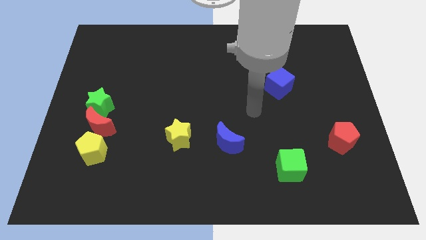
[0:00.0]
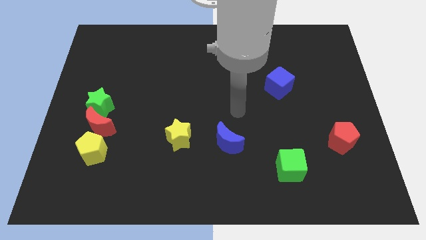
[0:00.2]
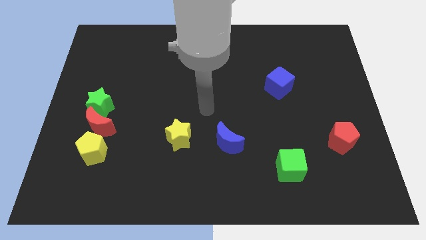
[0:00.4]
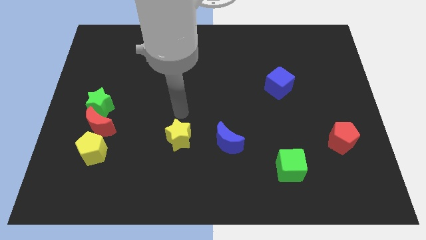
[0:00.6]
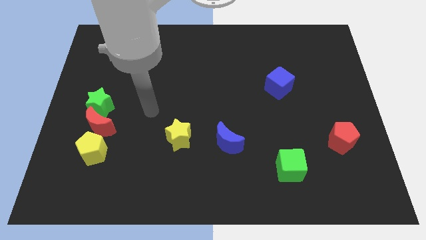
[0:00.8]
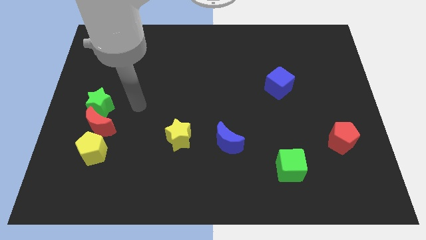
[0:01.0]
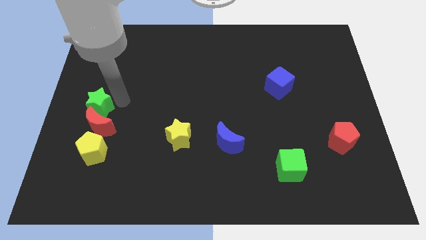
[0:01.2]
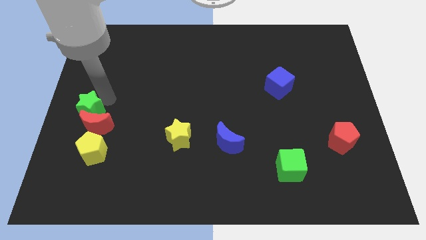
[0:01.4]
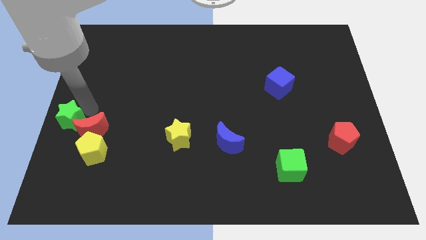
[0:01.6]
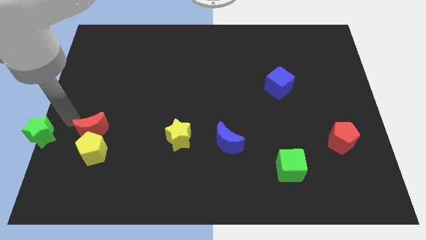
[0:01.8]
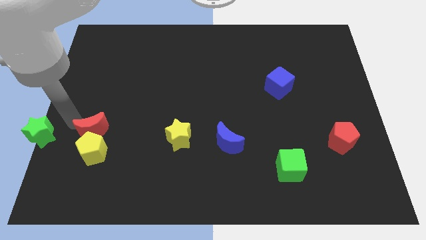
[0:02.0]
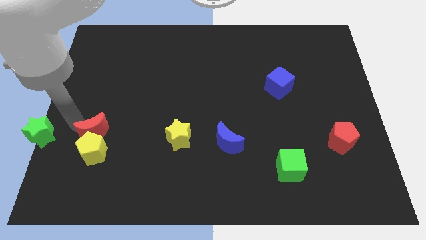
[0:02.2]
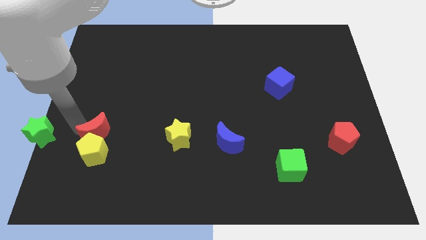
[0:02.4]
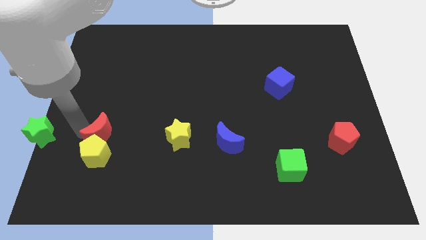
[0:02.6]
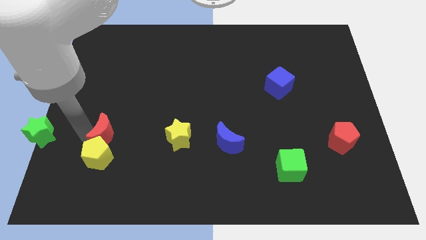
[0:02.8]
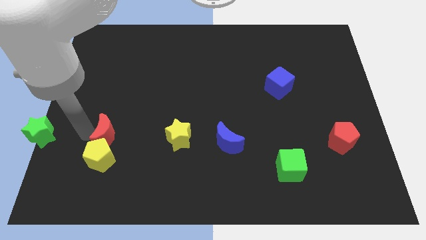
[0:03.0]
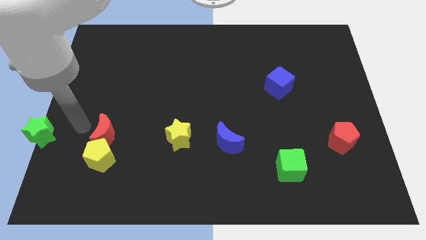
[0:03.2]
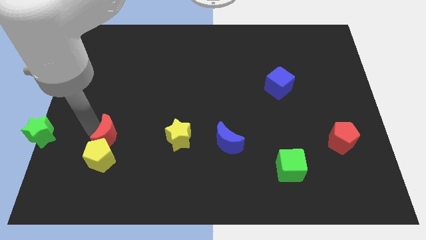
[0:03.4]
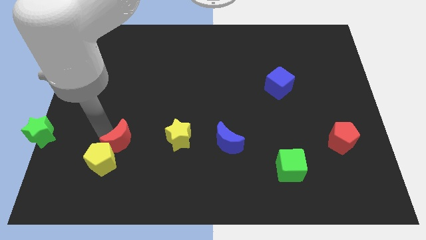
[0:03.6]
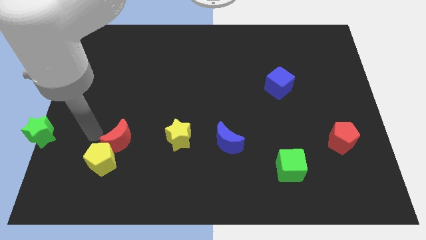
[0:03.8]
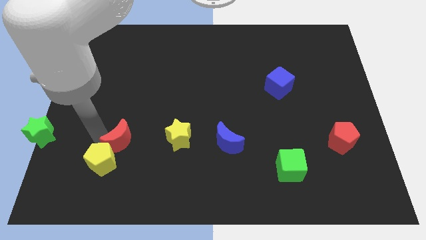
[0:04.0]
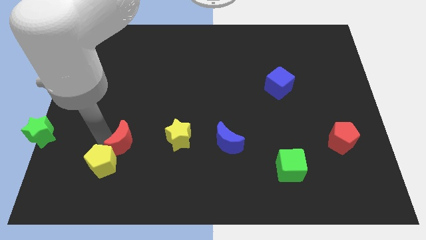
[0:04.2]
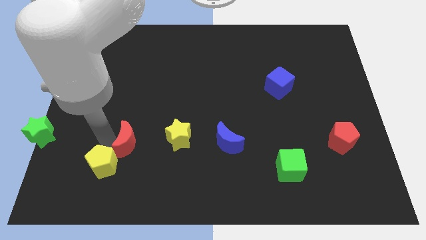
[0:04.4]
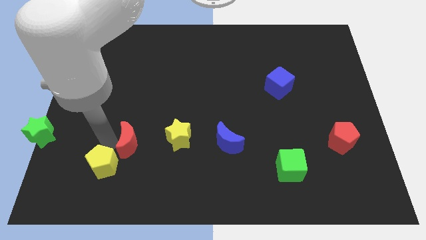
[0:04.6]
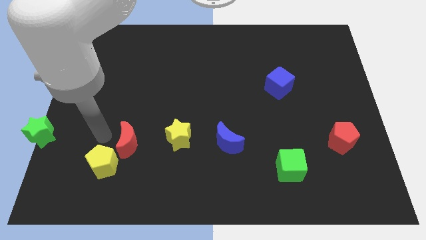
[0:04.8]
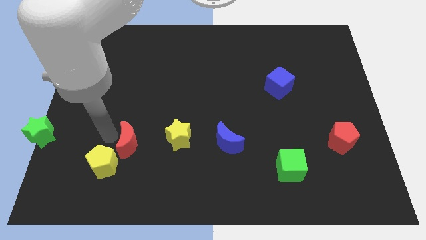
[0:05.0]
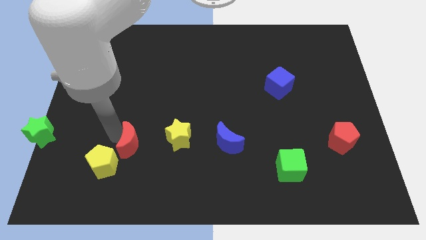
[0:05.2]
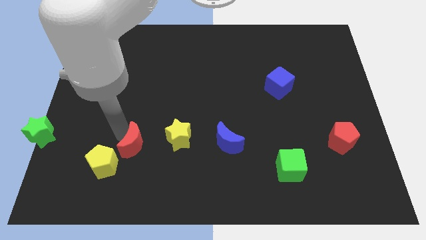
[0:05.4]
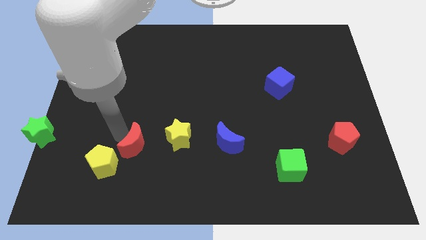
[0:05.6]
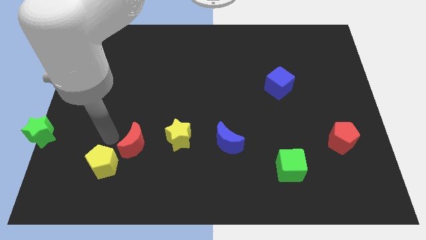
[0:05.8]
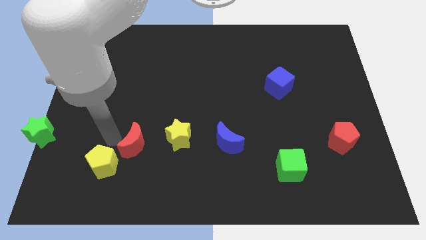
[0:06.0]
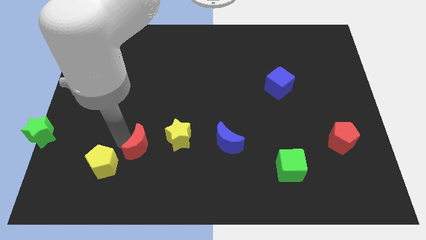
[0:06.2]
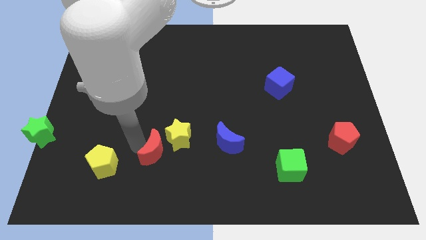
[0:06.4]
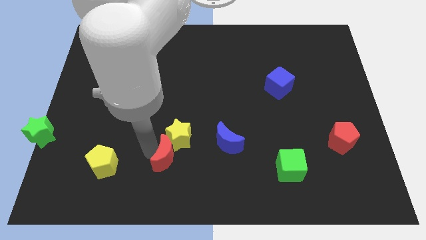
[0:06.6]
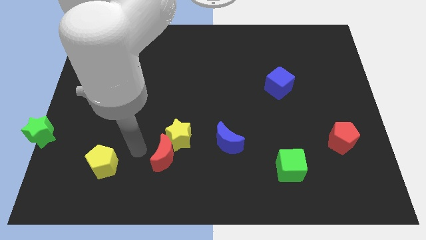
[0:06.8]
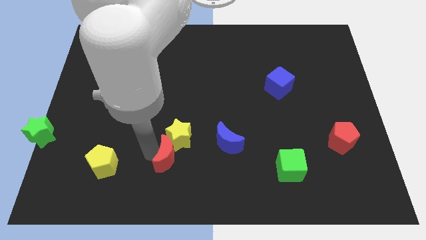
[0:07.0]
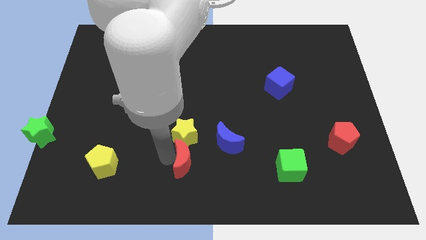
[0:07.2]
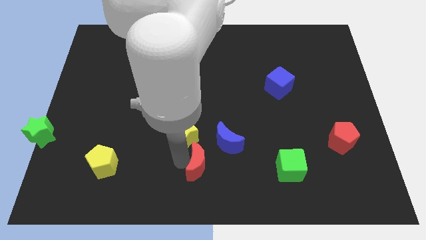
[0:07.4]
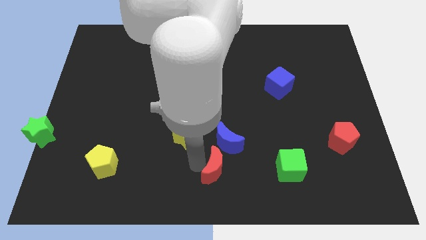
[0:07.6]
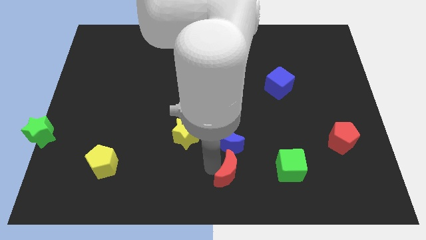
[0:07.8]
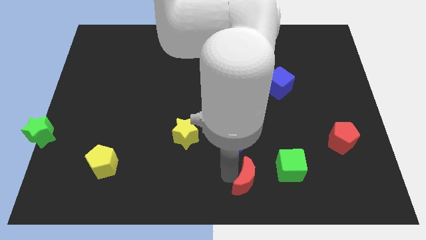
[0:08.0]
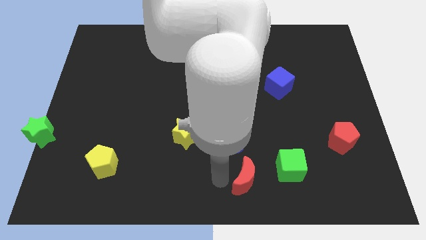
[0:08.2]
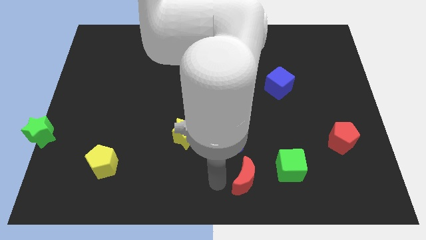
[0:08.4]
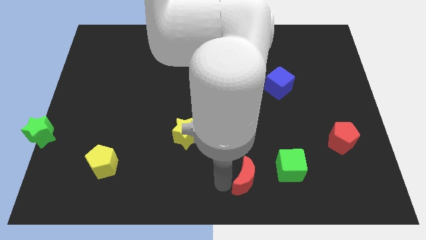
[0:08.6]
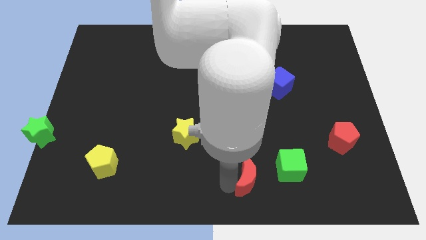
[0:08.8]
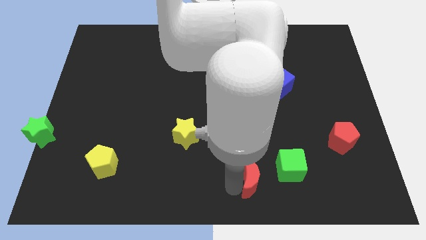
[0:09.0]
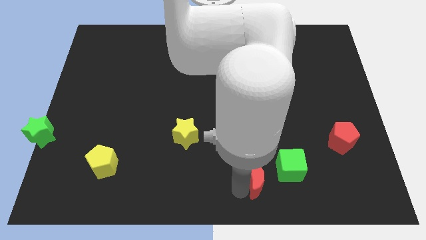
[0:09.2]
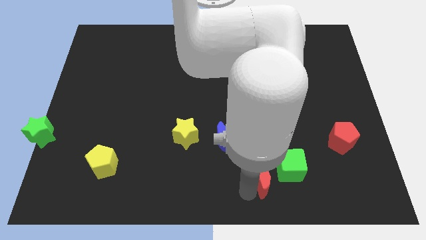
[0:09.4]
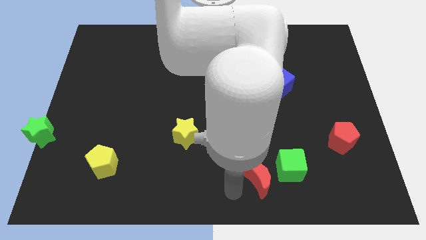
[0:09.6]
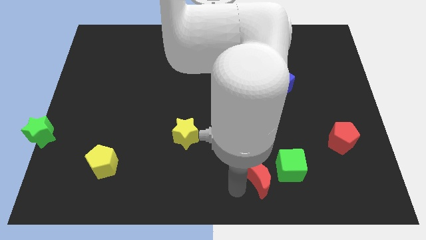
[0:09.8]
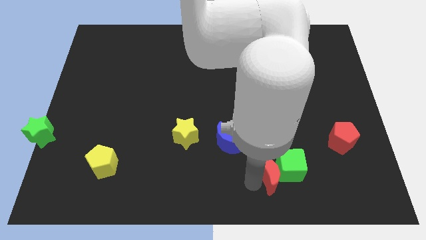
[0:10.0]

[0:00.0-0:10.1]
push the red moon to the green cube

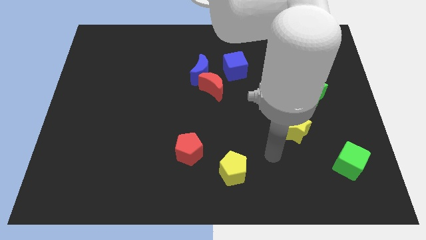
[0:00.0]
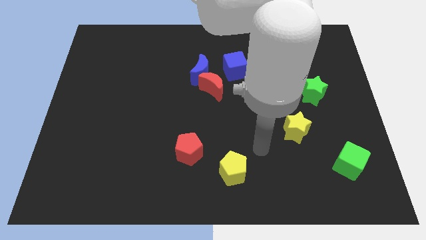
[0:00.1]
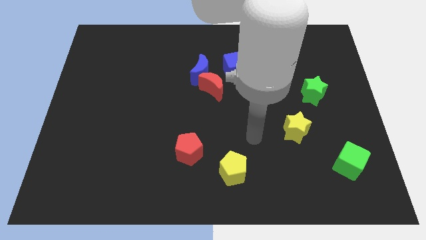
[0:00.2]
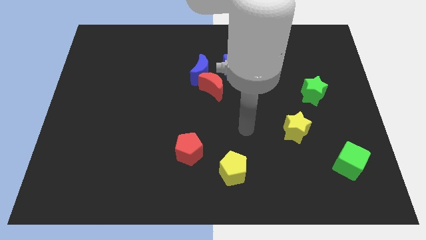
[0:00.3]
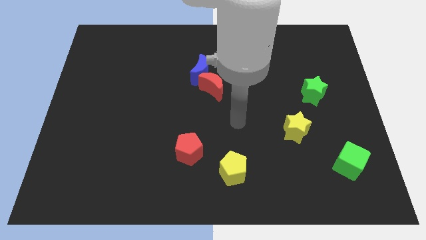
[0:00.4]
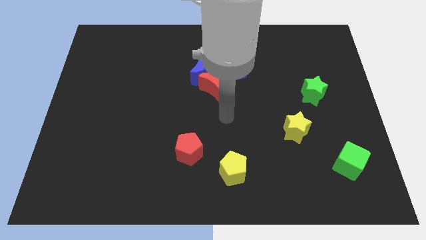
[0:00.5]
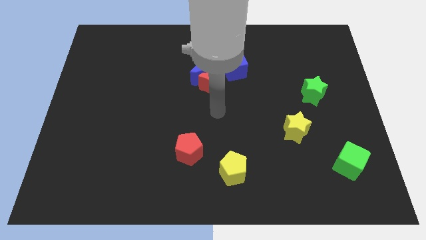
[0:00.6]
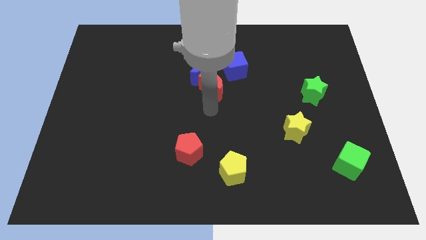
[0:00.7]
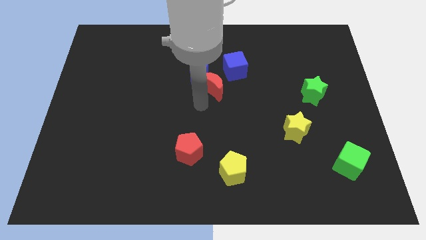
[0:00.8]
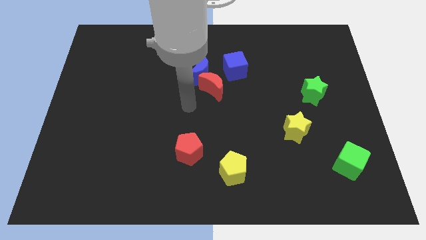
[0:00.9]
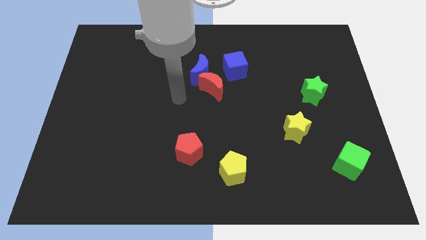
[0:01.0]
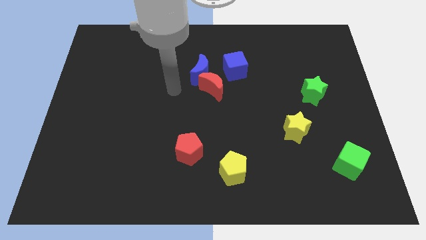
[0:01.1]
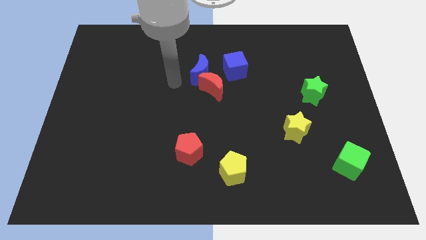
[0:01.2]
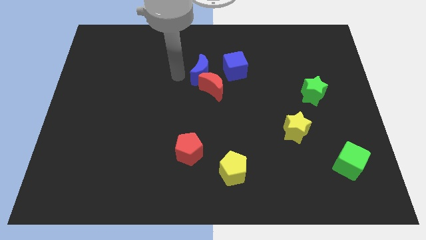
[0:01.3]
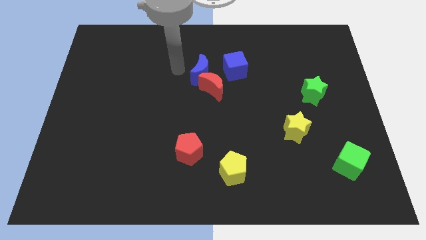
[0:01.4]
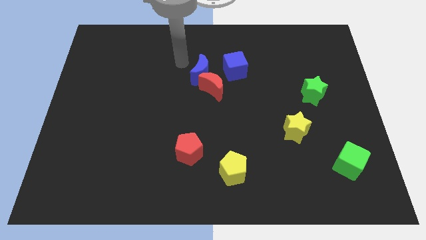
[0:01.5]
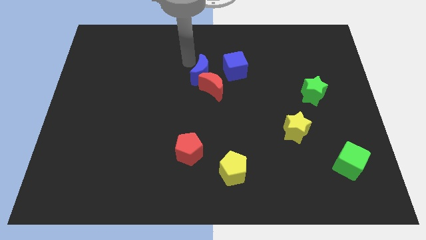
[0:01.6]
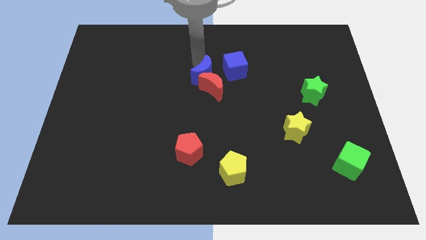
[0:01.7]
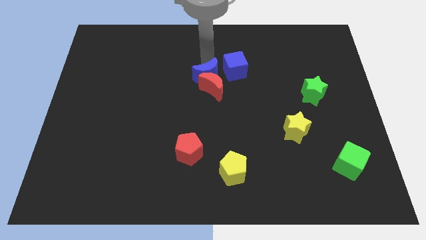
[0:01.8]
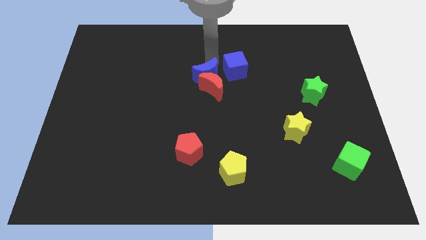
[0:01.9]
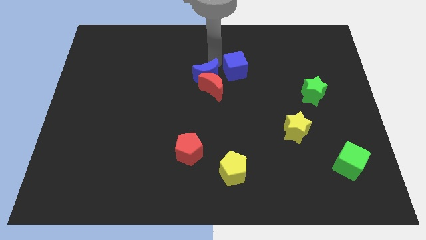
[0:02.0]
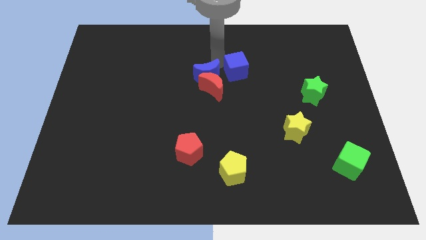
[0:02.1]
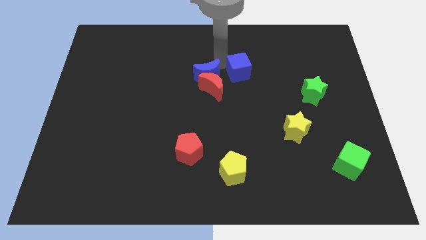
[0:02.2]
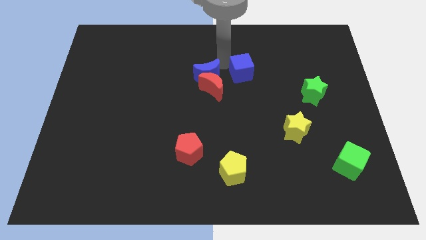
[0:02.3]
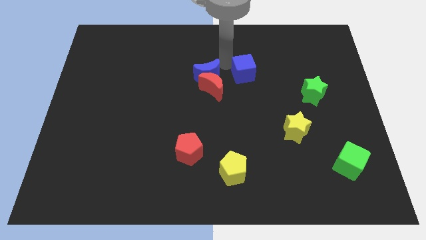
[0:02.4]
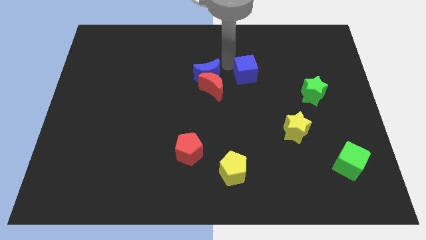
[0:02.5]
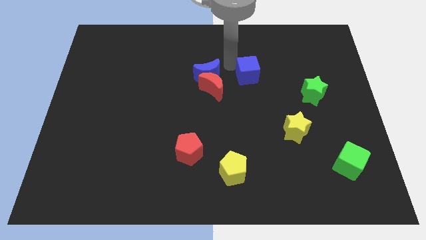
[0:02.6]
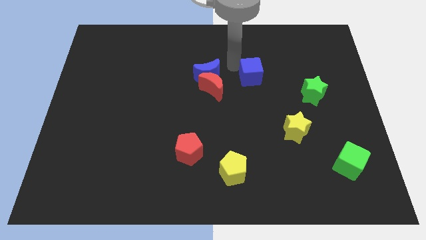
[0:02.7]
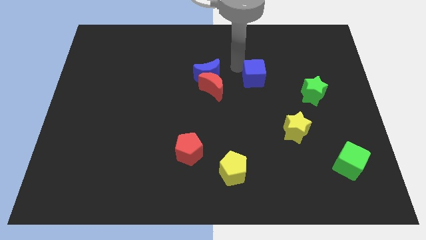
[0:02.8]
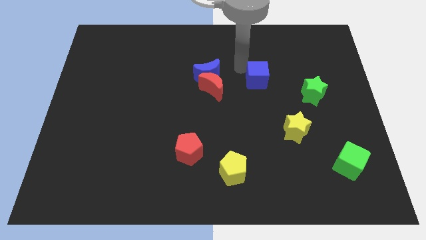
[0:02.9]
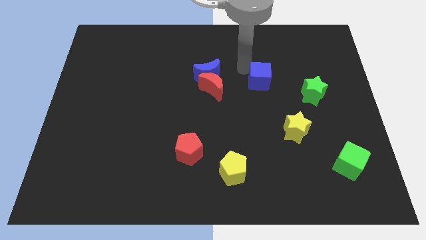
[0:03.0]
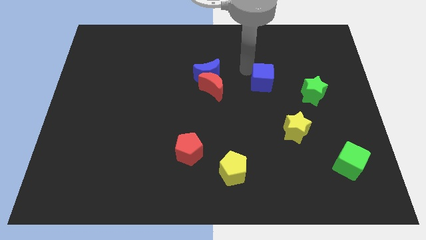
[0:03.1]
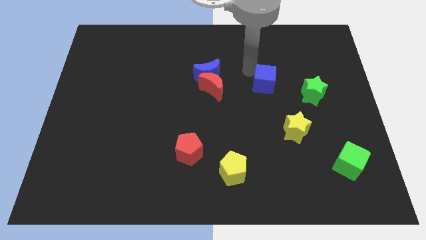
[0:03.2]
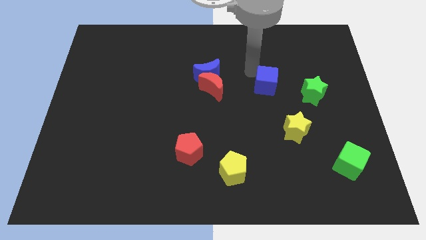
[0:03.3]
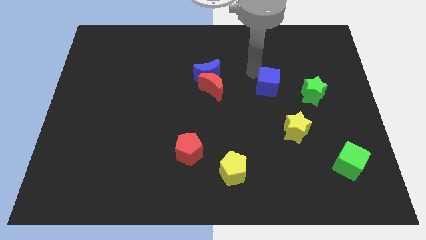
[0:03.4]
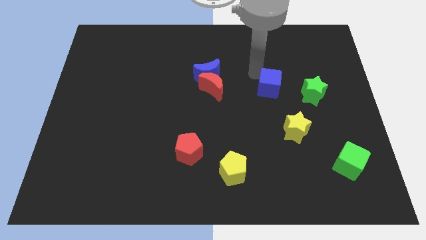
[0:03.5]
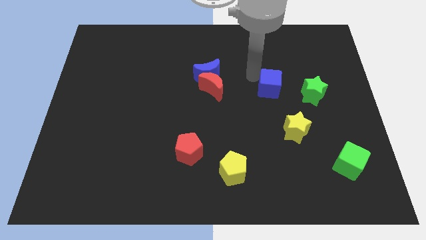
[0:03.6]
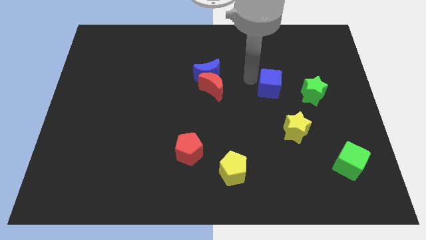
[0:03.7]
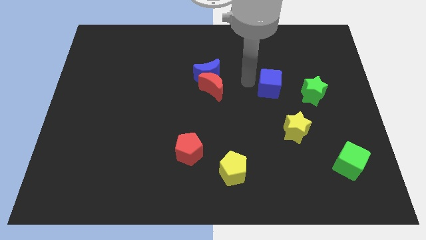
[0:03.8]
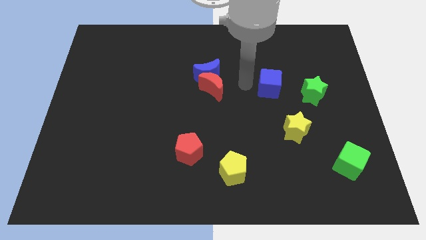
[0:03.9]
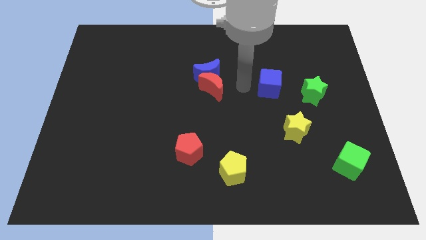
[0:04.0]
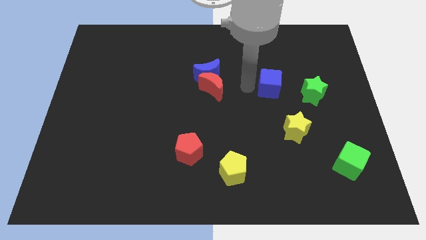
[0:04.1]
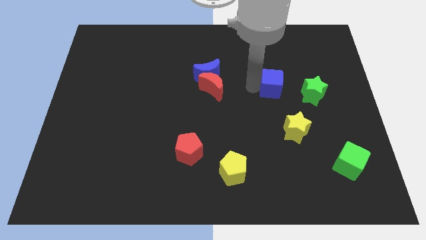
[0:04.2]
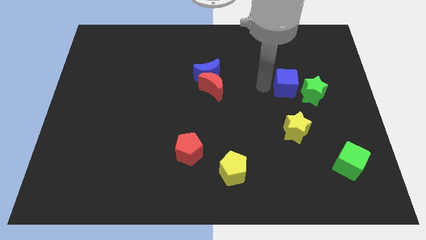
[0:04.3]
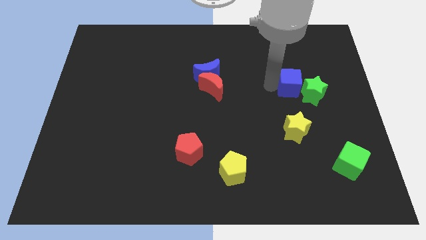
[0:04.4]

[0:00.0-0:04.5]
slide the blue cube towards the green star
